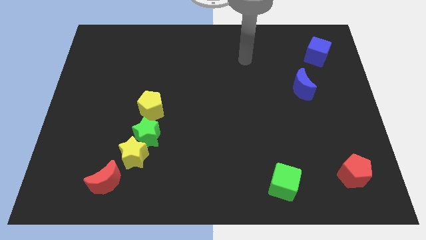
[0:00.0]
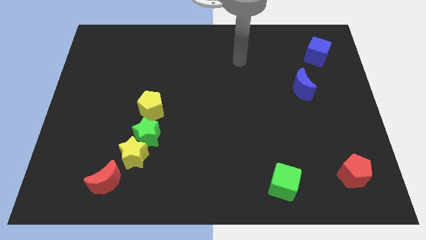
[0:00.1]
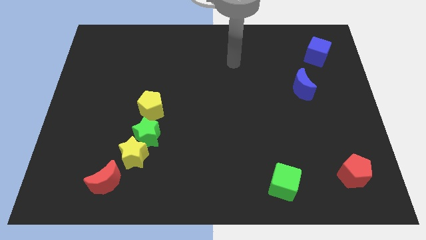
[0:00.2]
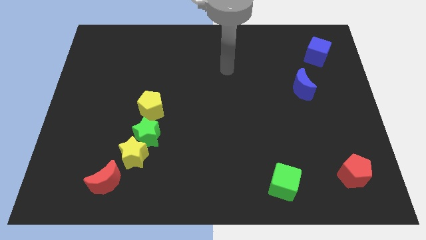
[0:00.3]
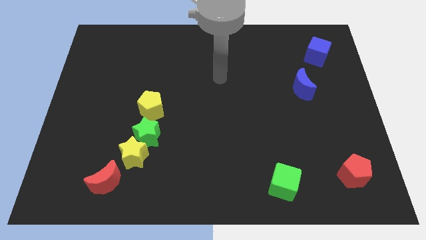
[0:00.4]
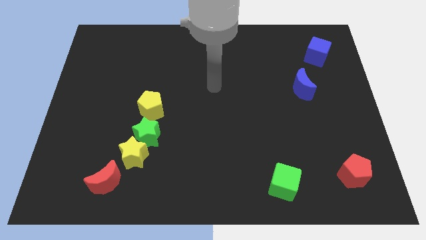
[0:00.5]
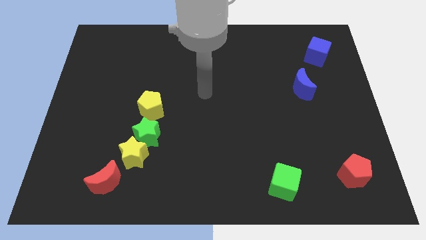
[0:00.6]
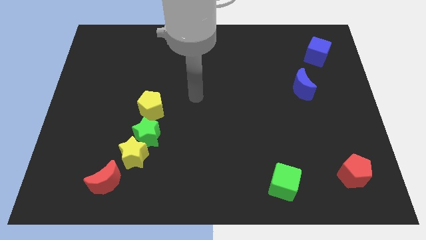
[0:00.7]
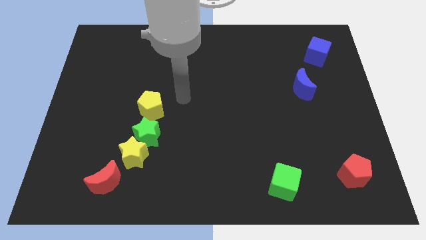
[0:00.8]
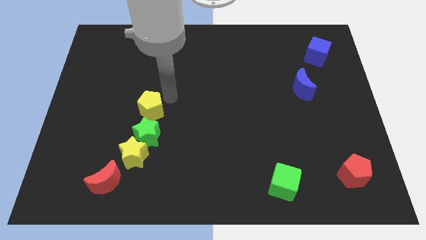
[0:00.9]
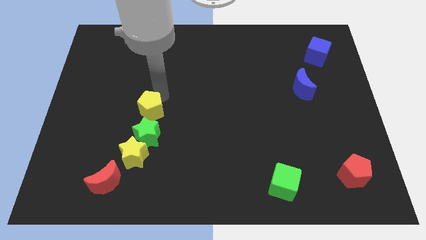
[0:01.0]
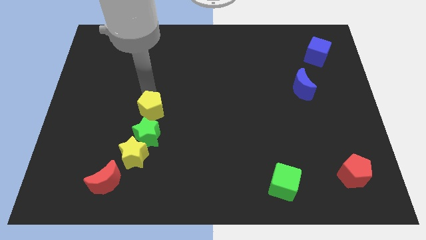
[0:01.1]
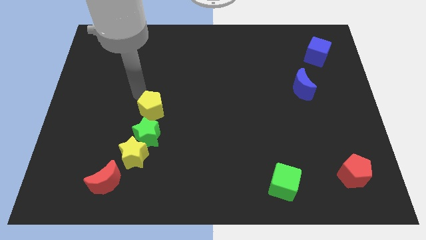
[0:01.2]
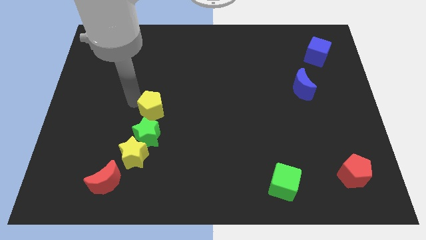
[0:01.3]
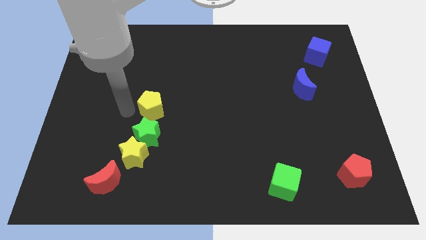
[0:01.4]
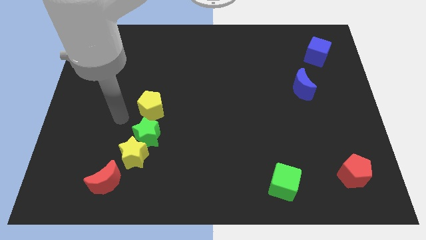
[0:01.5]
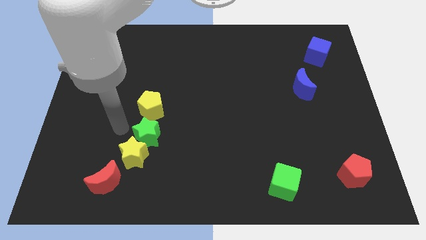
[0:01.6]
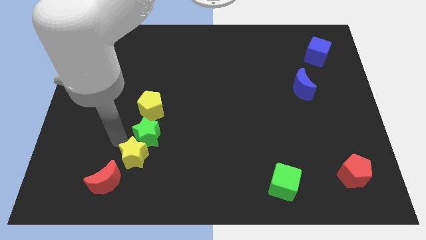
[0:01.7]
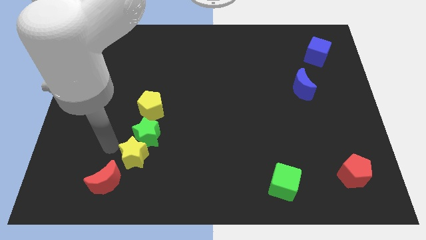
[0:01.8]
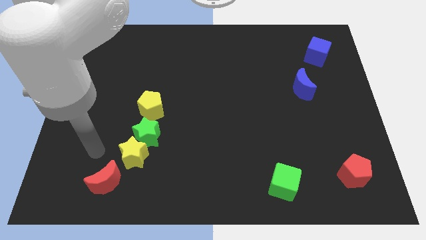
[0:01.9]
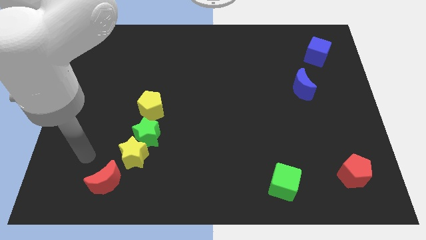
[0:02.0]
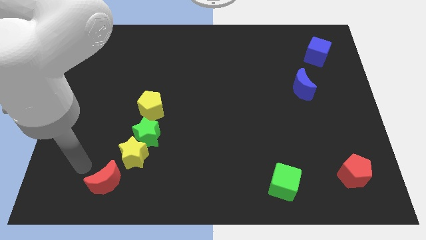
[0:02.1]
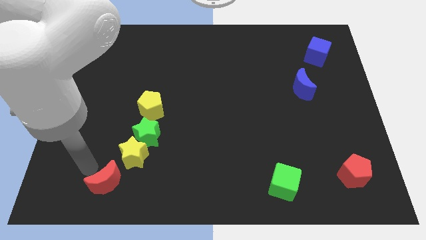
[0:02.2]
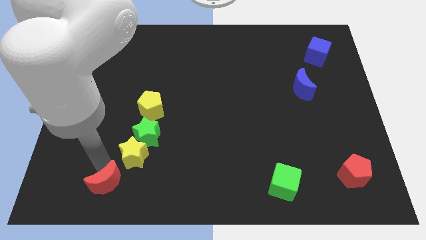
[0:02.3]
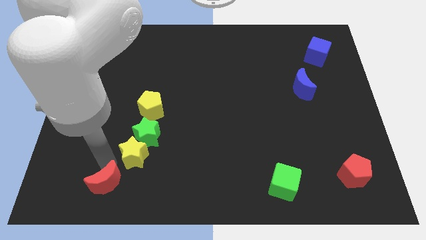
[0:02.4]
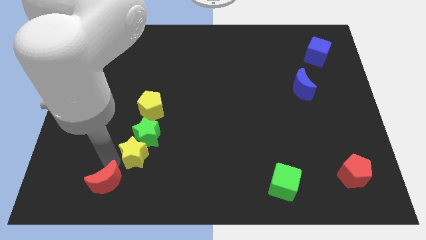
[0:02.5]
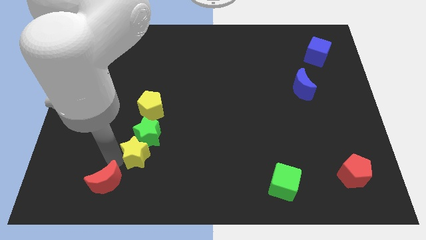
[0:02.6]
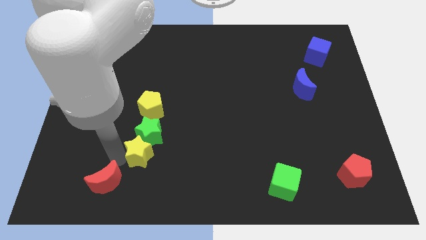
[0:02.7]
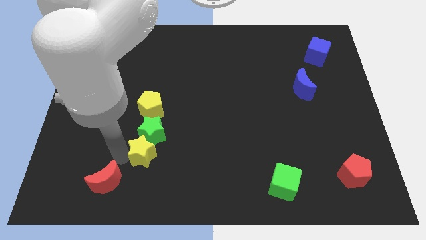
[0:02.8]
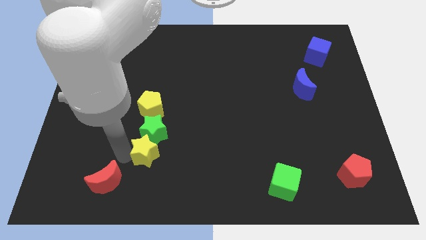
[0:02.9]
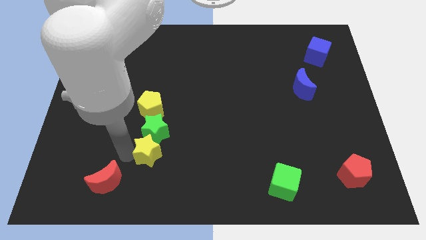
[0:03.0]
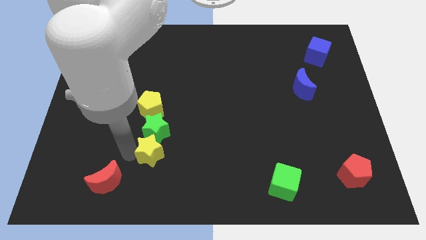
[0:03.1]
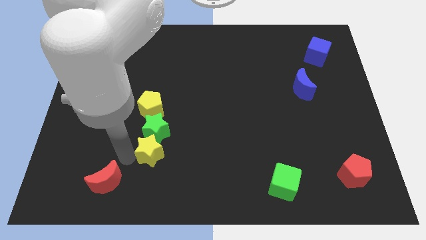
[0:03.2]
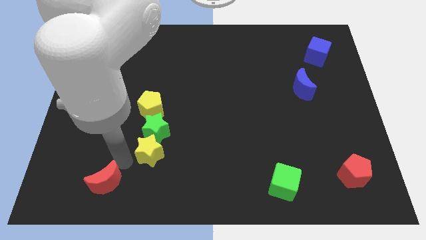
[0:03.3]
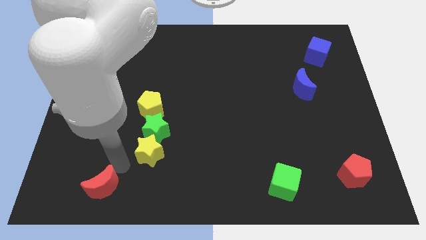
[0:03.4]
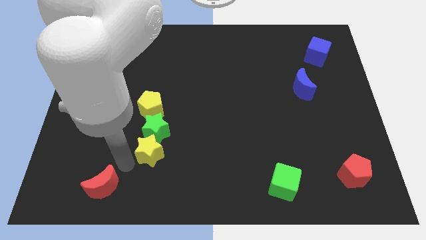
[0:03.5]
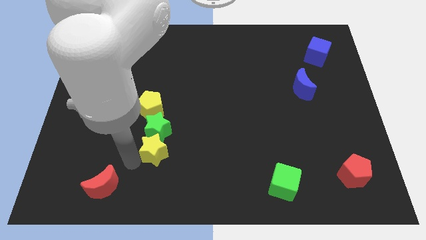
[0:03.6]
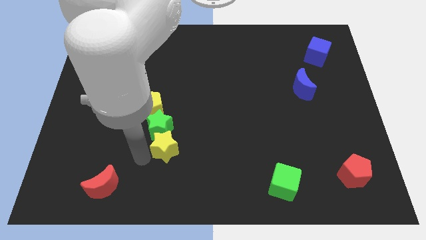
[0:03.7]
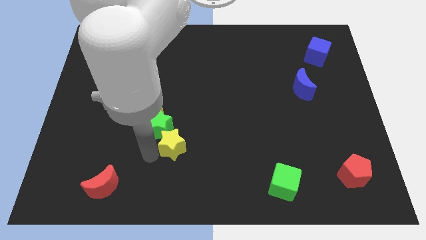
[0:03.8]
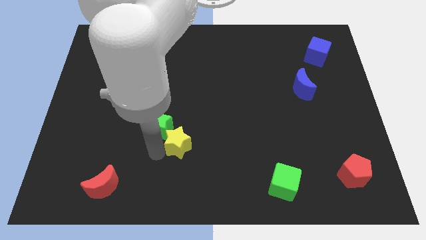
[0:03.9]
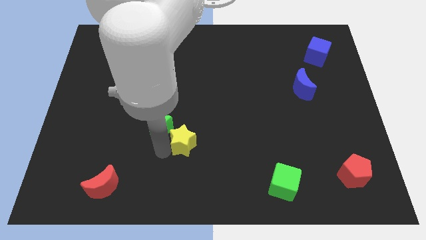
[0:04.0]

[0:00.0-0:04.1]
separate the yellow star from the green star and red moon

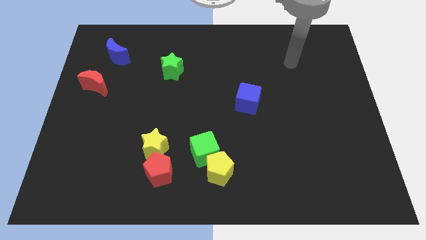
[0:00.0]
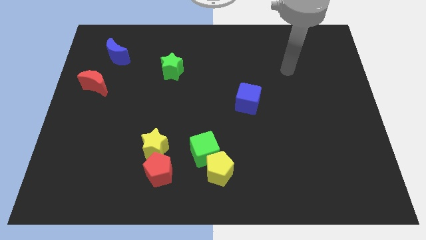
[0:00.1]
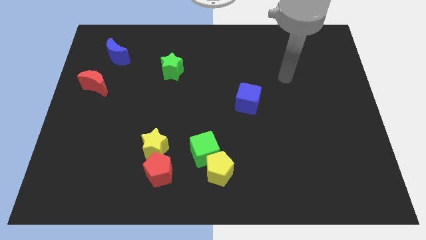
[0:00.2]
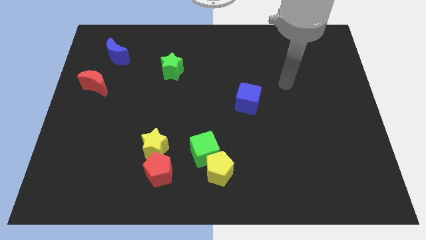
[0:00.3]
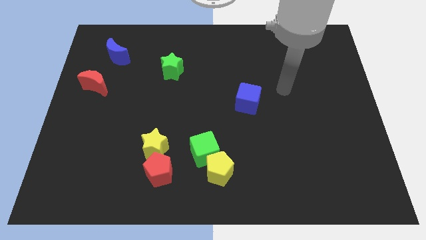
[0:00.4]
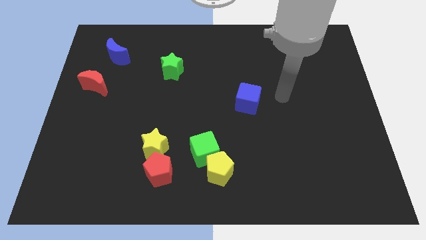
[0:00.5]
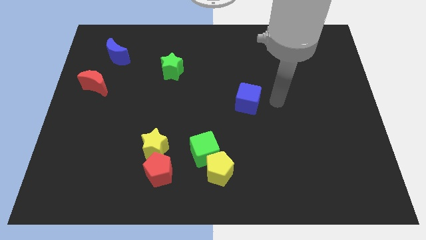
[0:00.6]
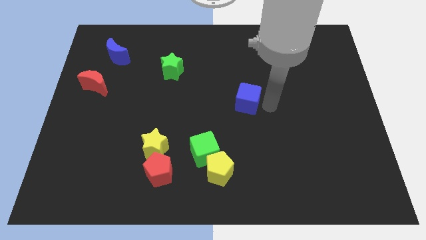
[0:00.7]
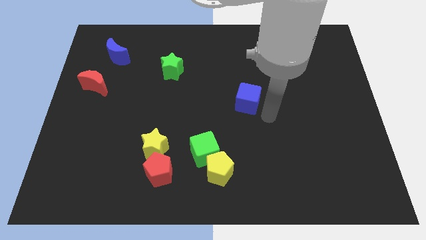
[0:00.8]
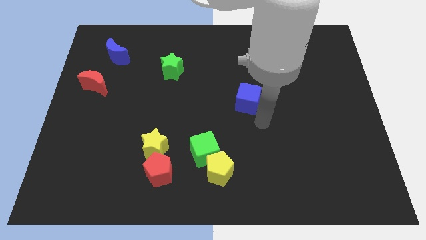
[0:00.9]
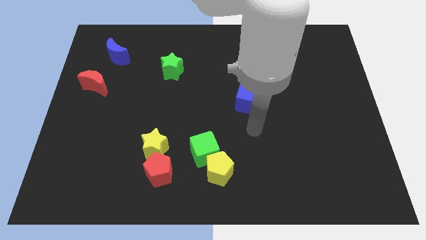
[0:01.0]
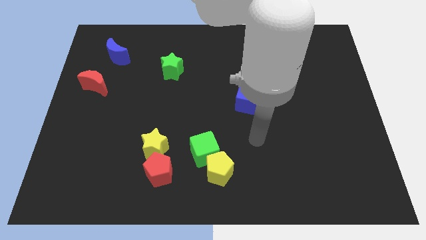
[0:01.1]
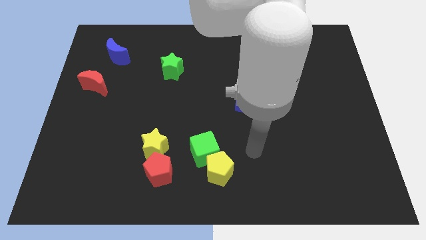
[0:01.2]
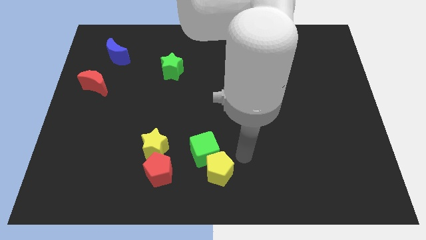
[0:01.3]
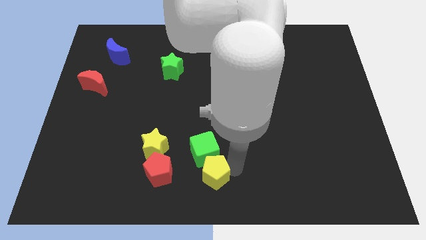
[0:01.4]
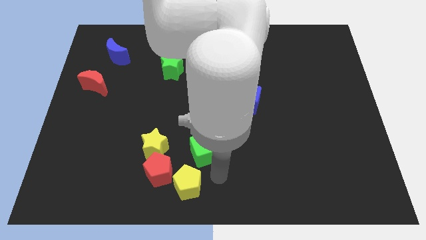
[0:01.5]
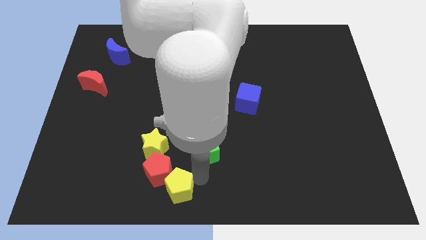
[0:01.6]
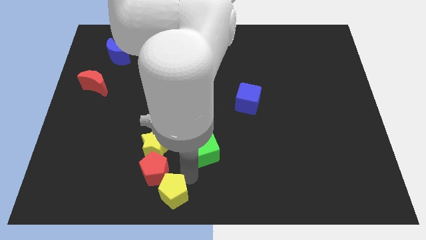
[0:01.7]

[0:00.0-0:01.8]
separate the green cube from the yellow pentagon

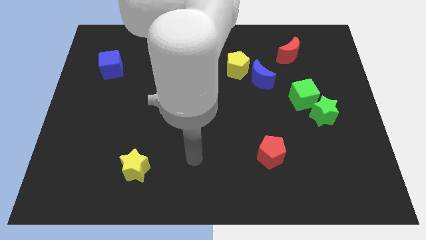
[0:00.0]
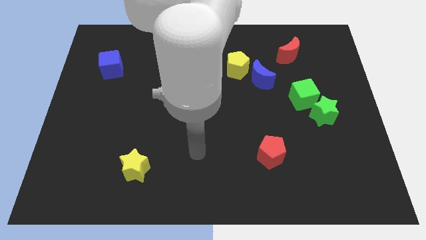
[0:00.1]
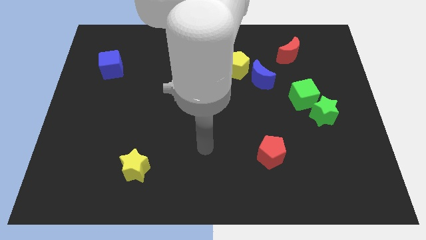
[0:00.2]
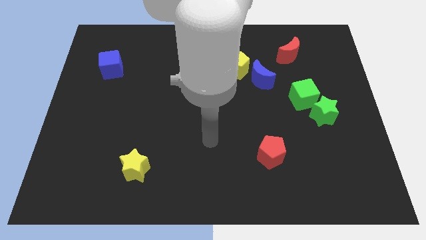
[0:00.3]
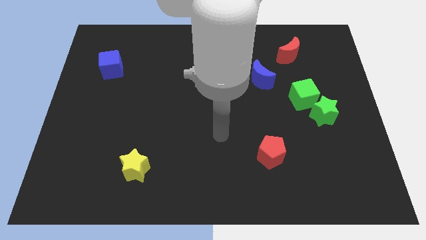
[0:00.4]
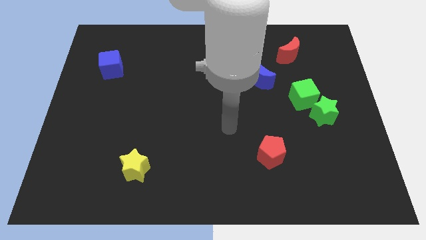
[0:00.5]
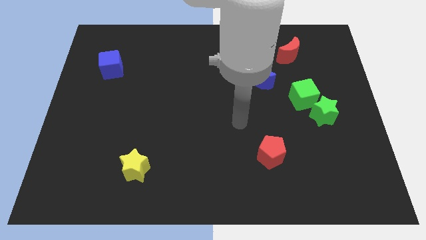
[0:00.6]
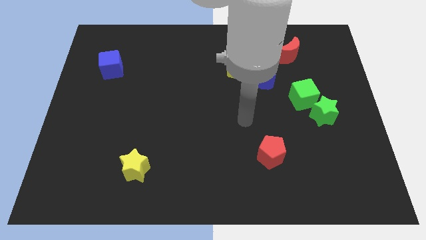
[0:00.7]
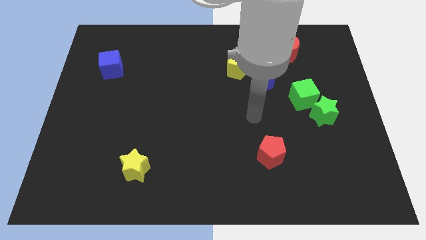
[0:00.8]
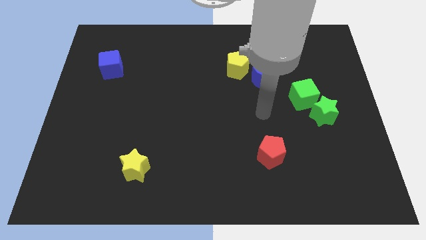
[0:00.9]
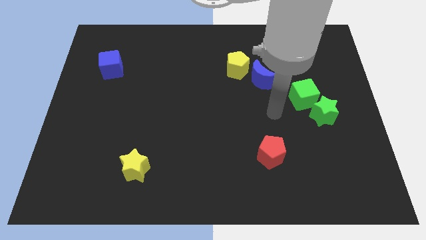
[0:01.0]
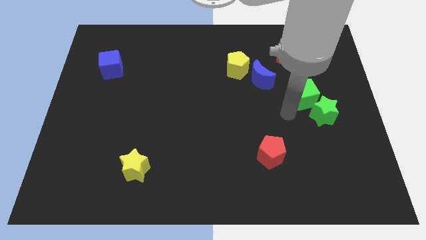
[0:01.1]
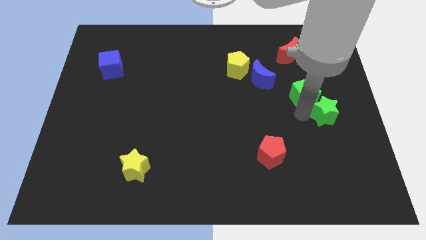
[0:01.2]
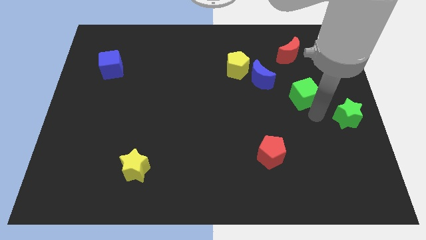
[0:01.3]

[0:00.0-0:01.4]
move the green cube away from the green star

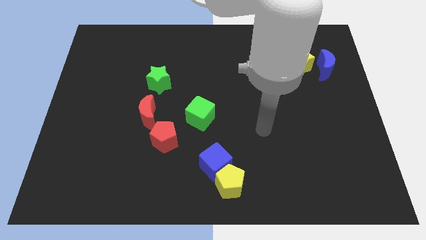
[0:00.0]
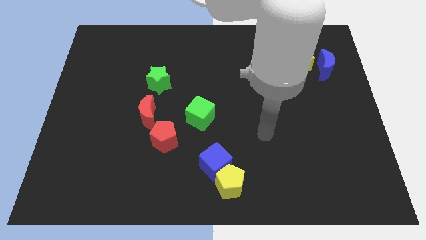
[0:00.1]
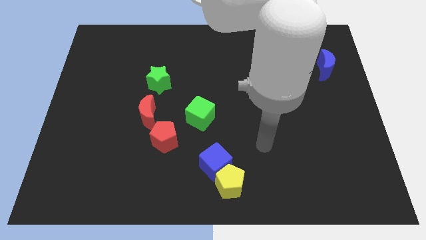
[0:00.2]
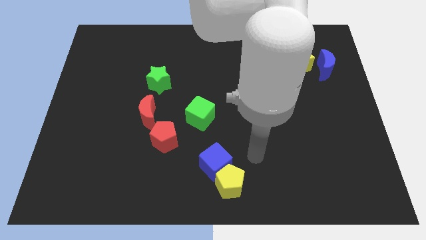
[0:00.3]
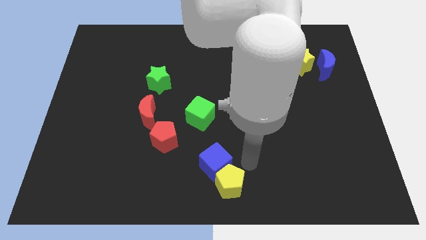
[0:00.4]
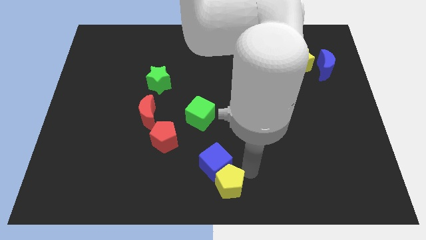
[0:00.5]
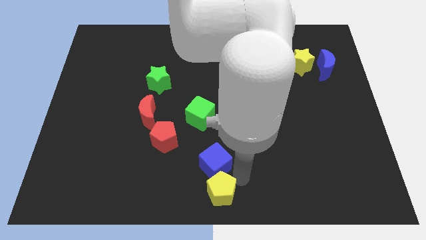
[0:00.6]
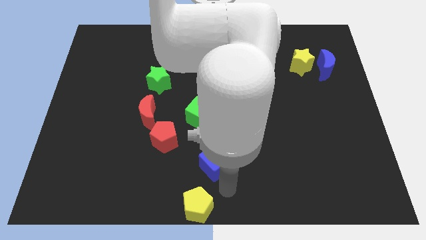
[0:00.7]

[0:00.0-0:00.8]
move the blue cube away from the yellow pentagon

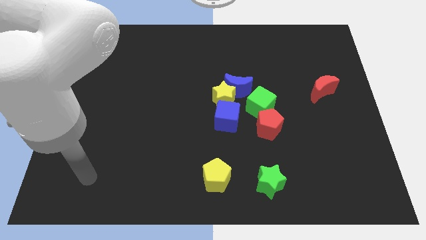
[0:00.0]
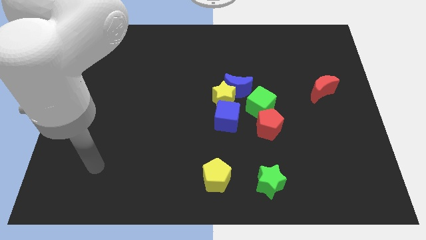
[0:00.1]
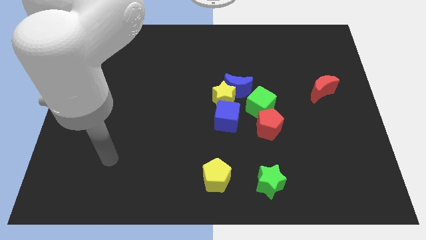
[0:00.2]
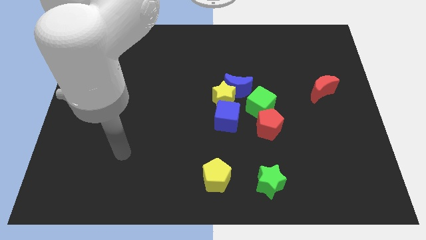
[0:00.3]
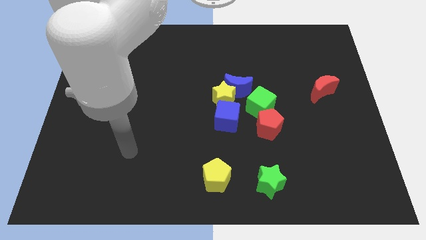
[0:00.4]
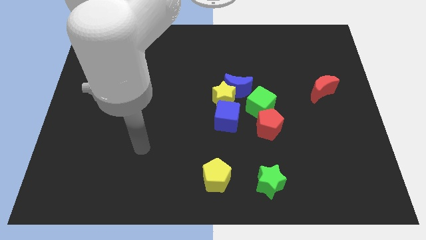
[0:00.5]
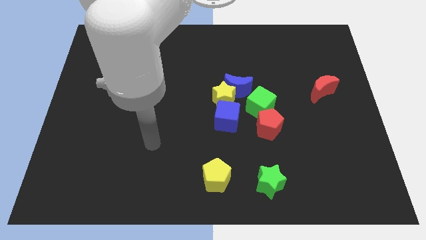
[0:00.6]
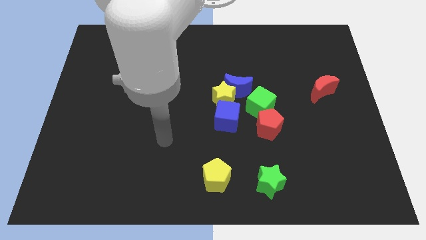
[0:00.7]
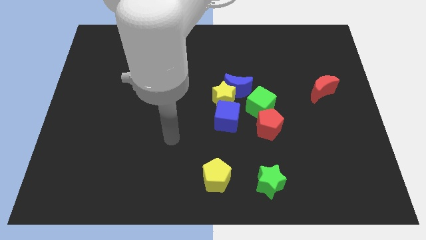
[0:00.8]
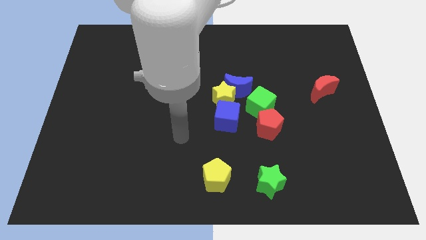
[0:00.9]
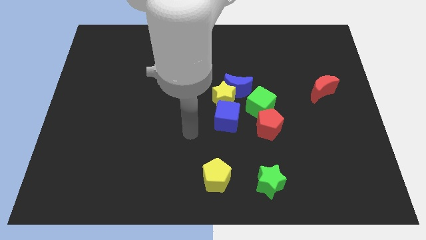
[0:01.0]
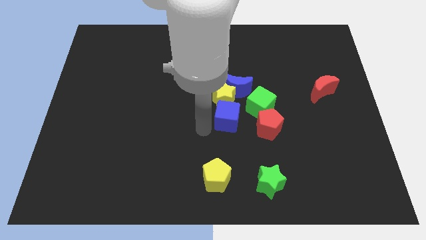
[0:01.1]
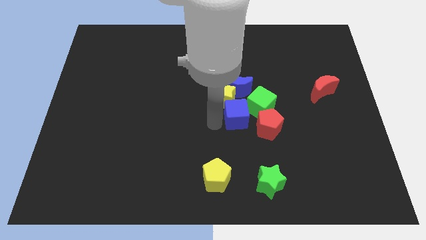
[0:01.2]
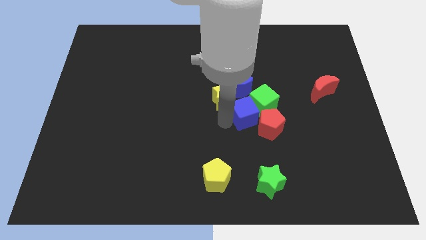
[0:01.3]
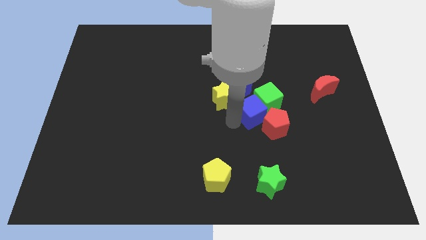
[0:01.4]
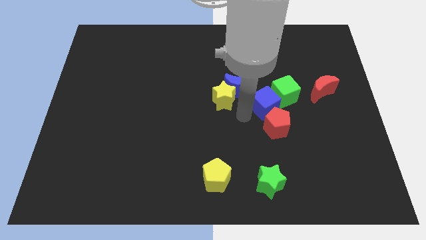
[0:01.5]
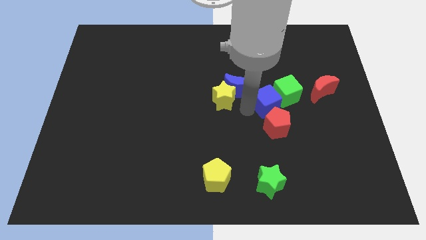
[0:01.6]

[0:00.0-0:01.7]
pull the yellow star apart from the blue moon, blue cube, and green cube
